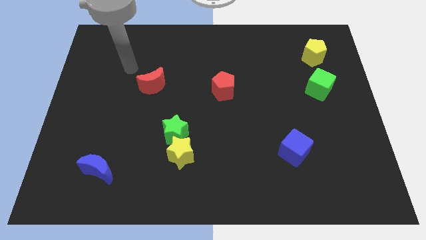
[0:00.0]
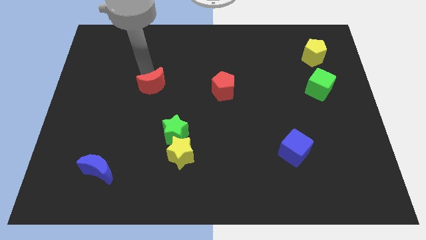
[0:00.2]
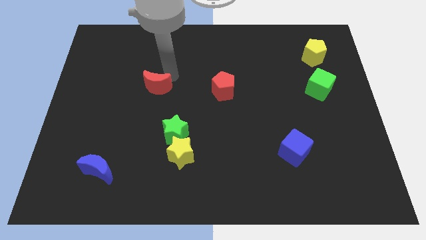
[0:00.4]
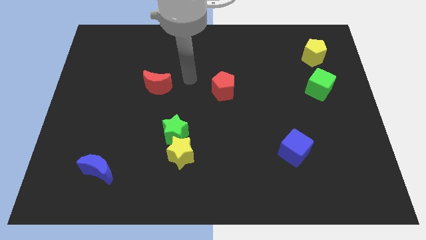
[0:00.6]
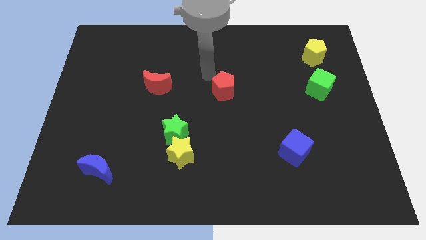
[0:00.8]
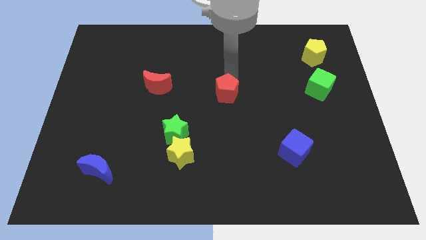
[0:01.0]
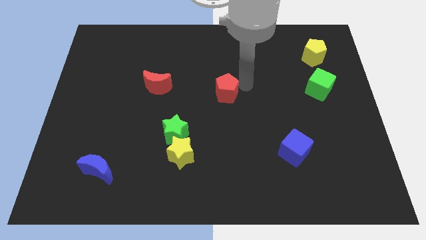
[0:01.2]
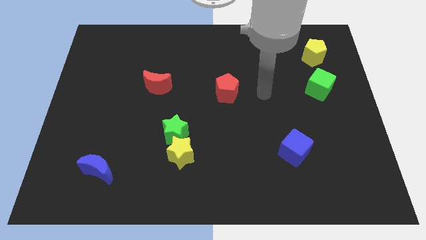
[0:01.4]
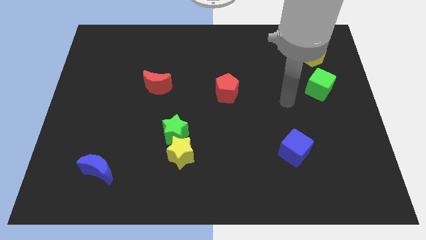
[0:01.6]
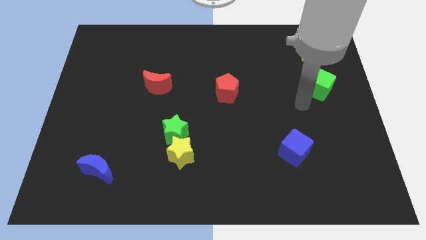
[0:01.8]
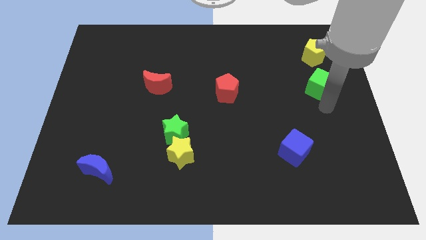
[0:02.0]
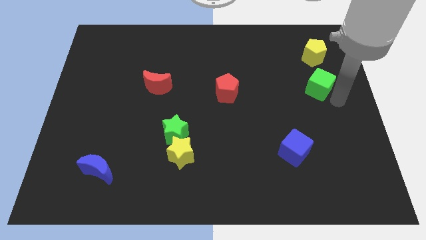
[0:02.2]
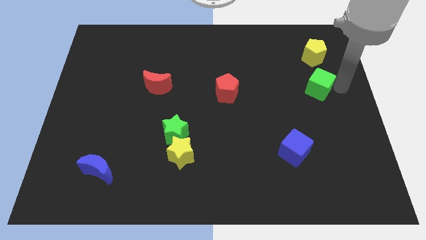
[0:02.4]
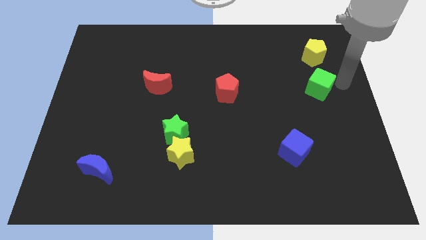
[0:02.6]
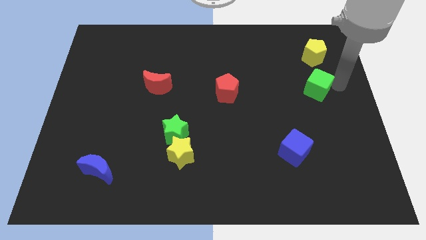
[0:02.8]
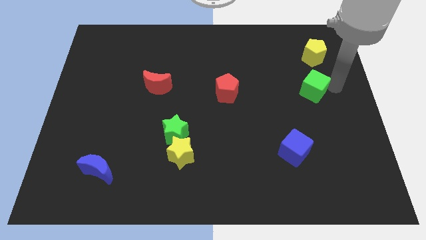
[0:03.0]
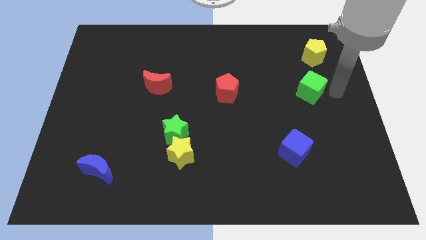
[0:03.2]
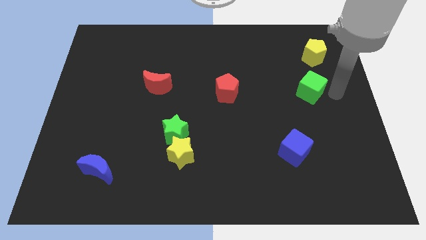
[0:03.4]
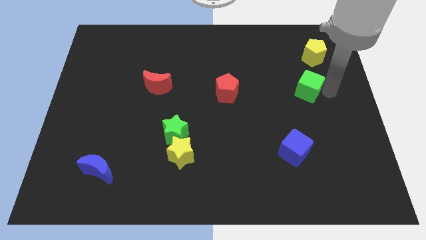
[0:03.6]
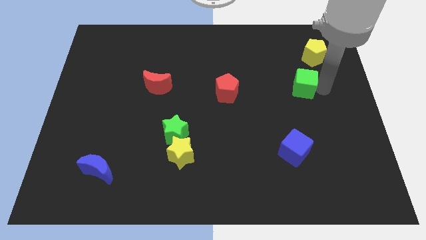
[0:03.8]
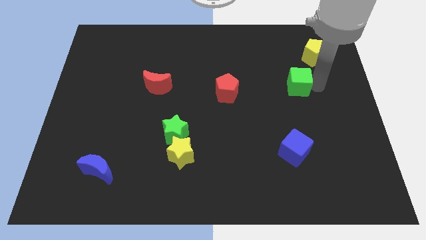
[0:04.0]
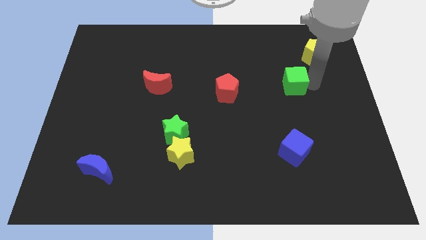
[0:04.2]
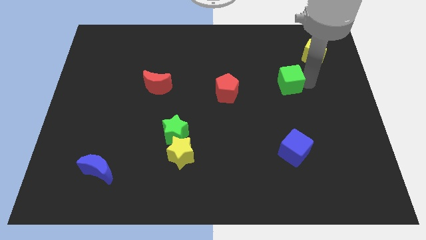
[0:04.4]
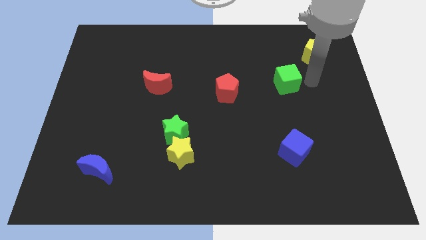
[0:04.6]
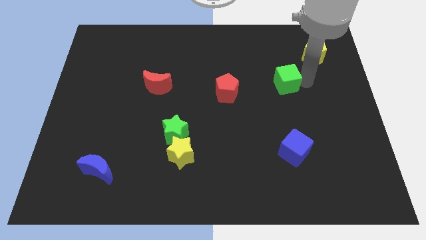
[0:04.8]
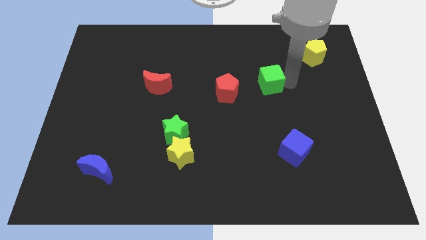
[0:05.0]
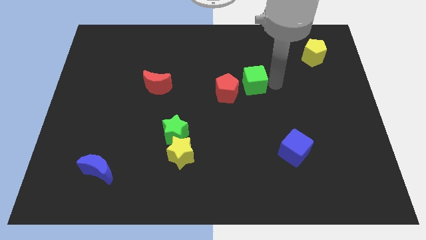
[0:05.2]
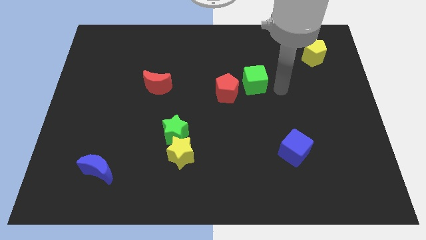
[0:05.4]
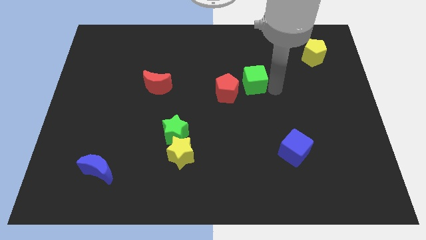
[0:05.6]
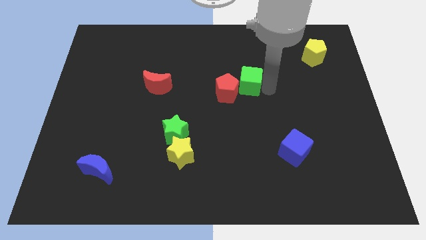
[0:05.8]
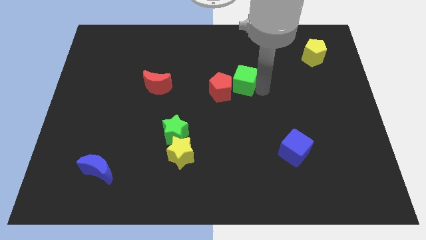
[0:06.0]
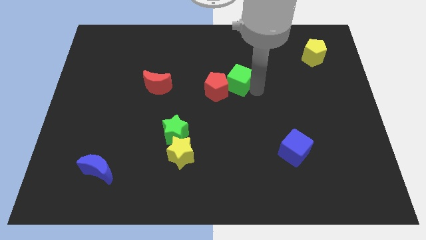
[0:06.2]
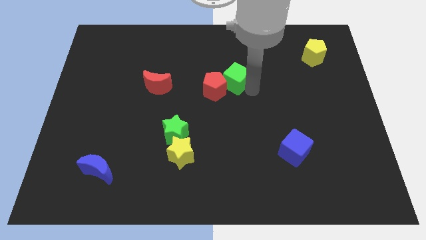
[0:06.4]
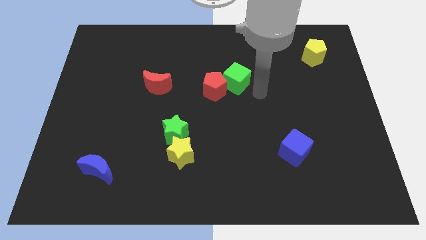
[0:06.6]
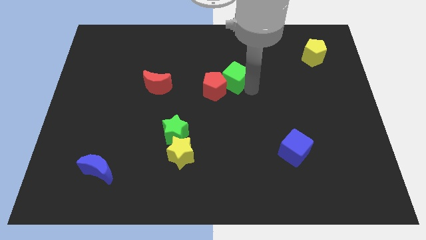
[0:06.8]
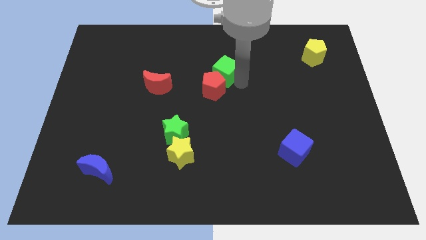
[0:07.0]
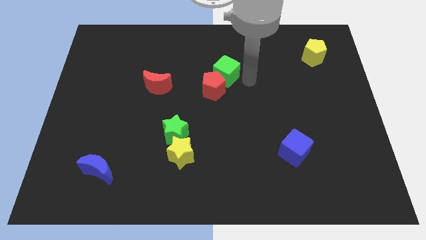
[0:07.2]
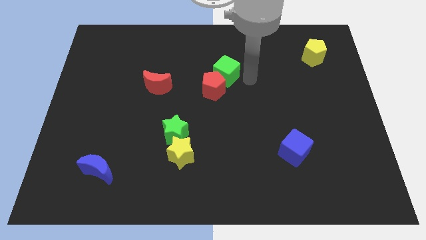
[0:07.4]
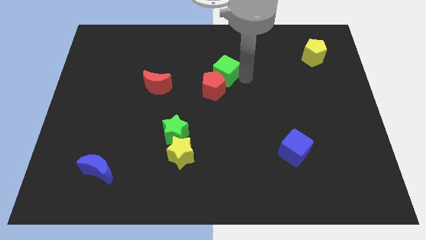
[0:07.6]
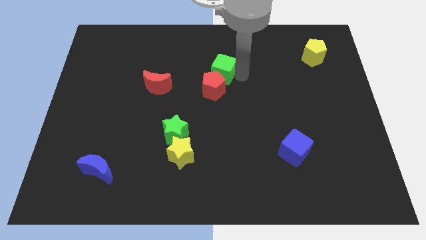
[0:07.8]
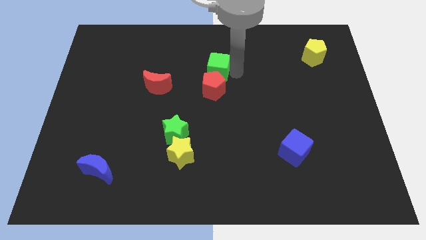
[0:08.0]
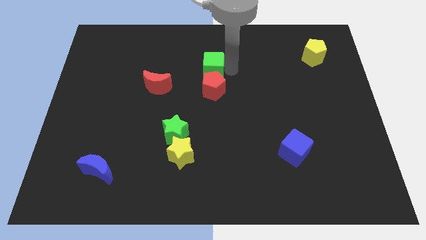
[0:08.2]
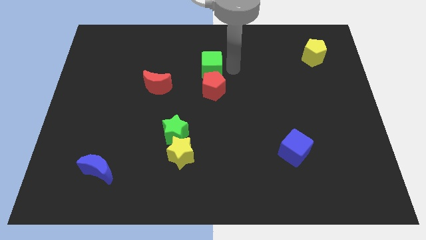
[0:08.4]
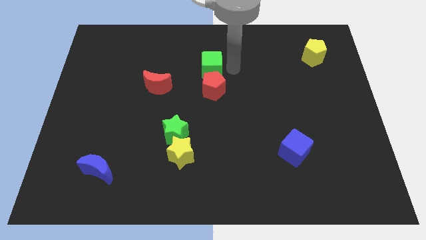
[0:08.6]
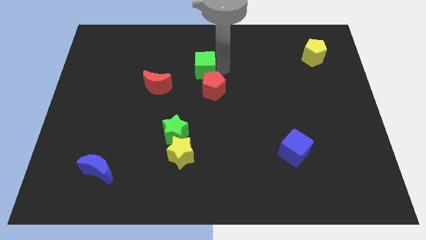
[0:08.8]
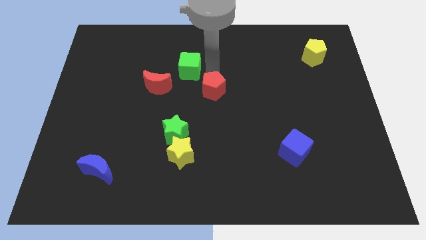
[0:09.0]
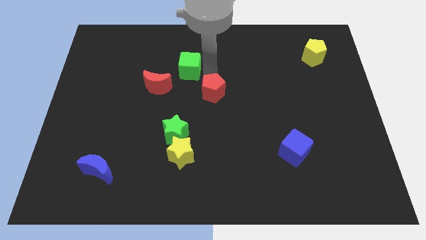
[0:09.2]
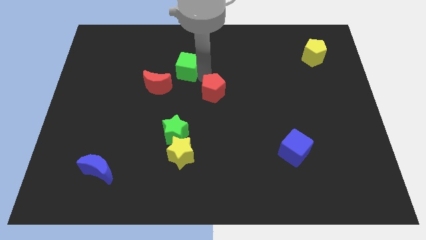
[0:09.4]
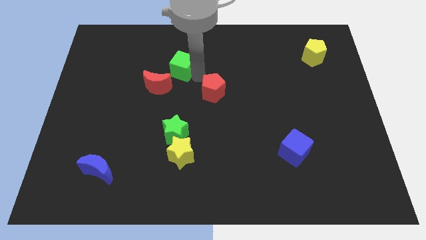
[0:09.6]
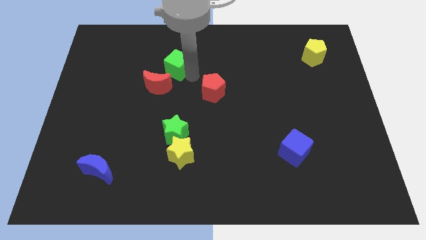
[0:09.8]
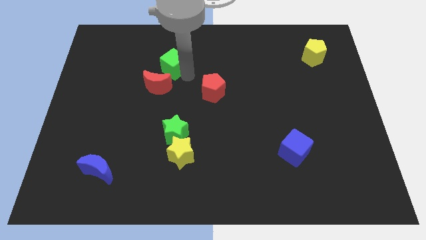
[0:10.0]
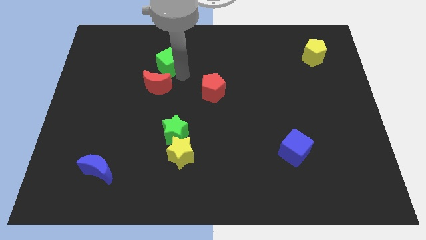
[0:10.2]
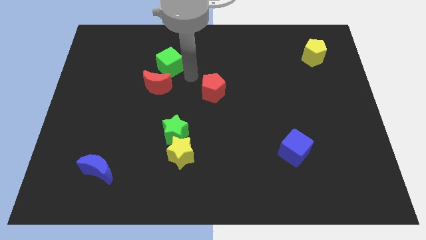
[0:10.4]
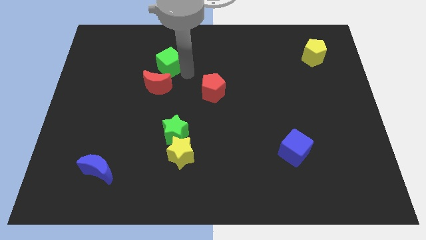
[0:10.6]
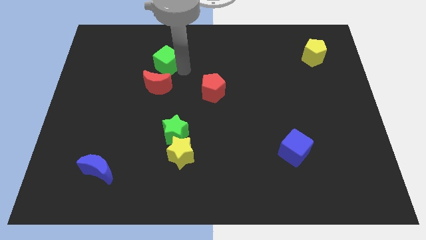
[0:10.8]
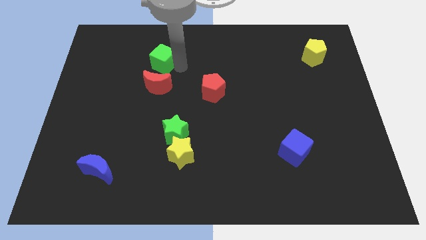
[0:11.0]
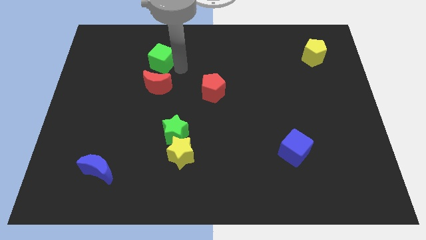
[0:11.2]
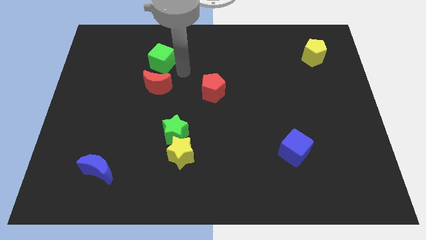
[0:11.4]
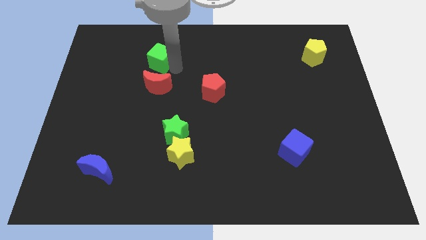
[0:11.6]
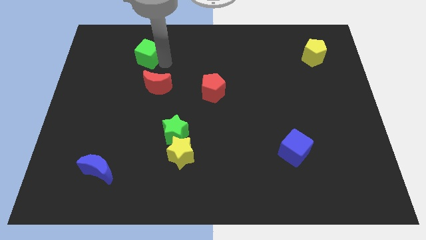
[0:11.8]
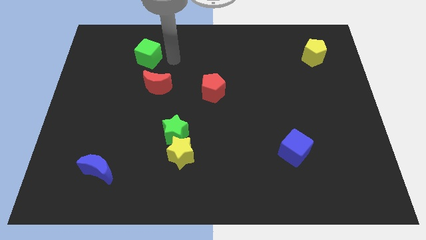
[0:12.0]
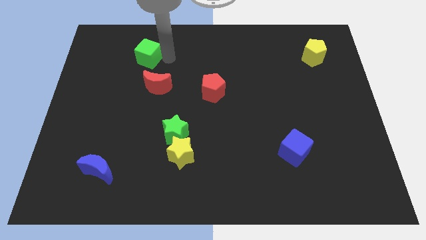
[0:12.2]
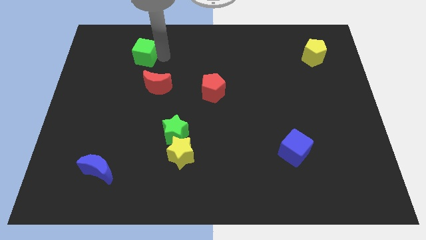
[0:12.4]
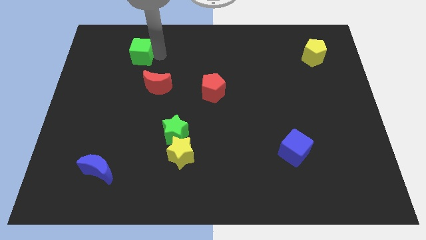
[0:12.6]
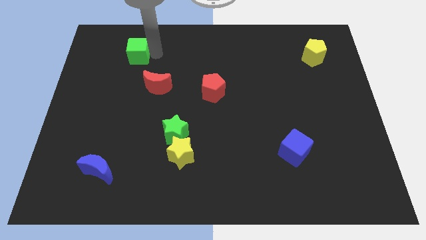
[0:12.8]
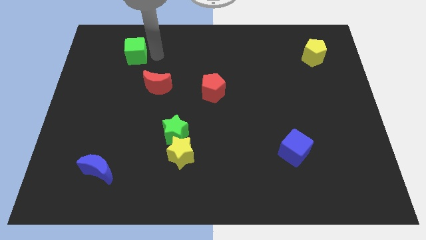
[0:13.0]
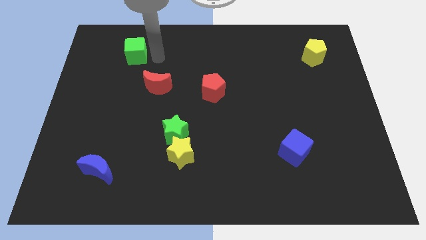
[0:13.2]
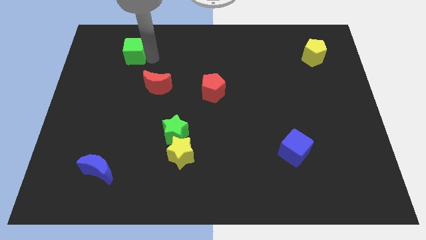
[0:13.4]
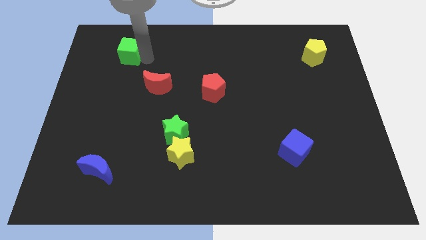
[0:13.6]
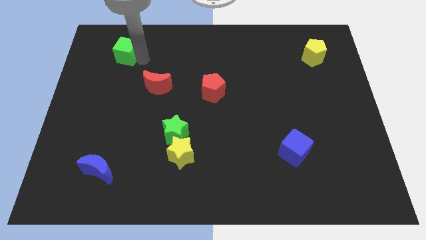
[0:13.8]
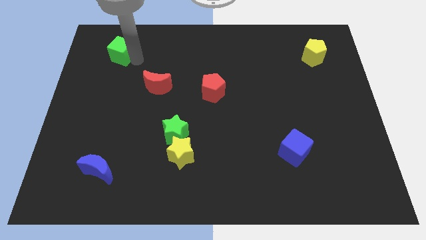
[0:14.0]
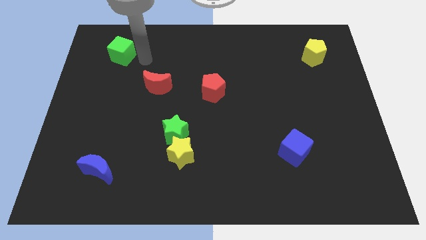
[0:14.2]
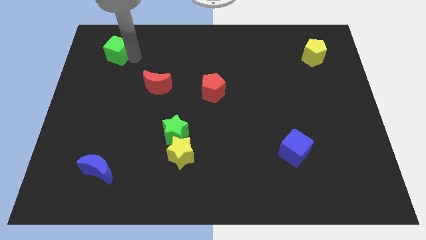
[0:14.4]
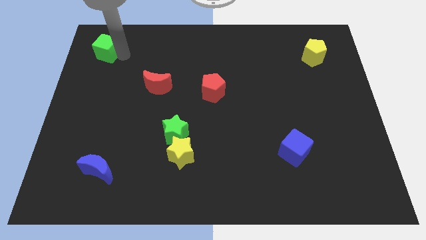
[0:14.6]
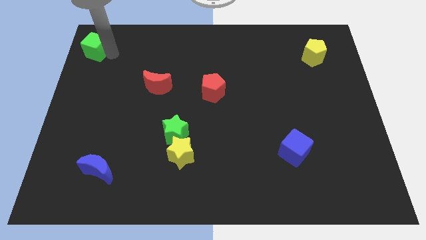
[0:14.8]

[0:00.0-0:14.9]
slide the green cube to the top left corner
